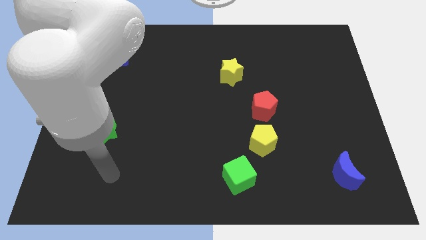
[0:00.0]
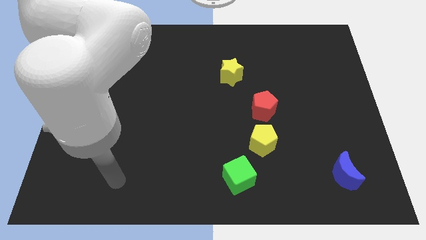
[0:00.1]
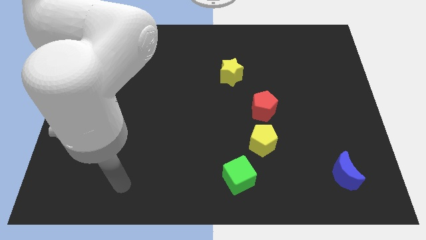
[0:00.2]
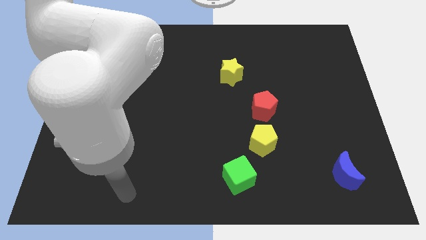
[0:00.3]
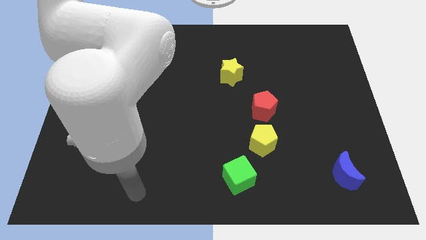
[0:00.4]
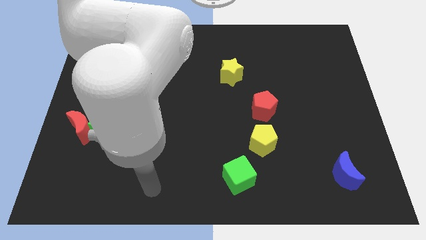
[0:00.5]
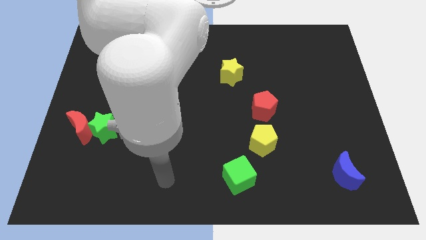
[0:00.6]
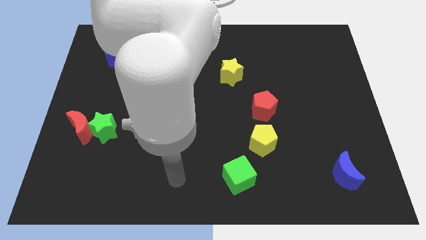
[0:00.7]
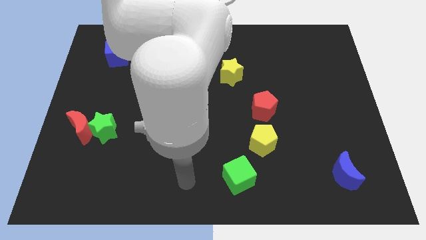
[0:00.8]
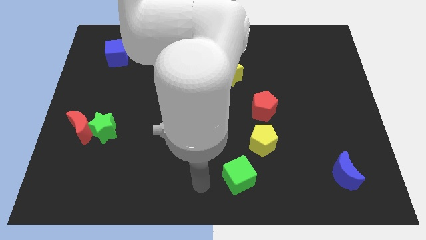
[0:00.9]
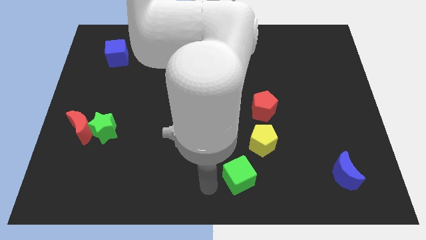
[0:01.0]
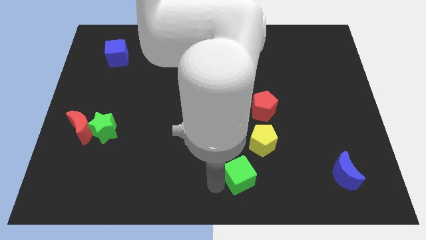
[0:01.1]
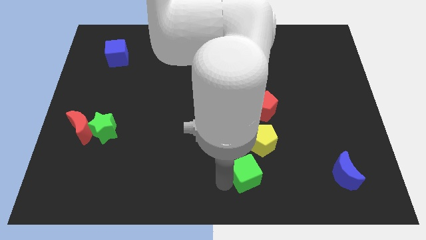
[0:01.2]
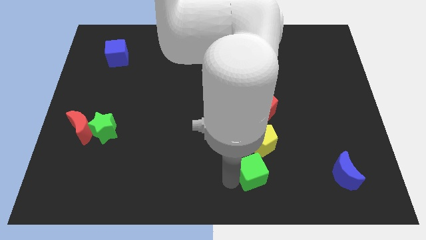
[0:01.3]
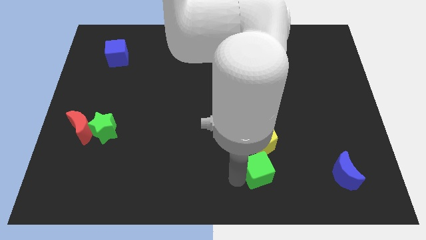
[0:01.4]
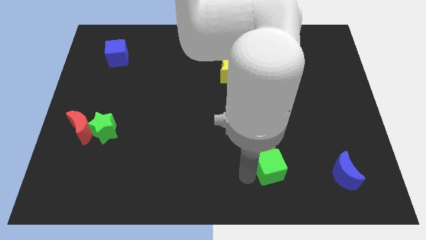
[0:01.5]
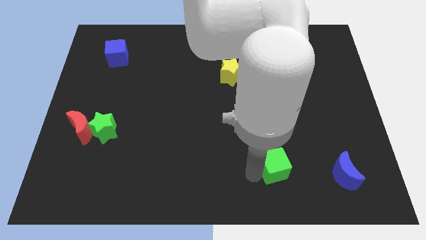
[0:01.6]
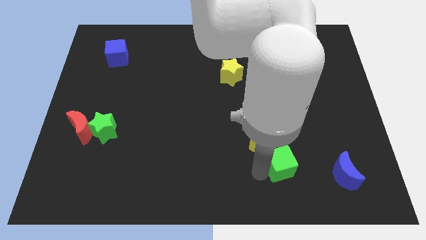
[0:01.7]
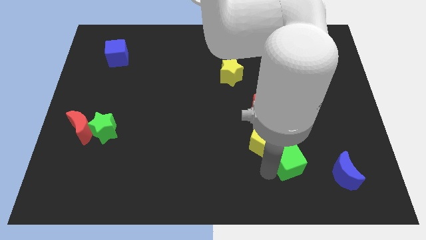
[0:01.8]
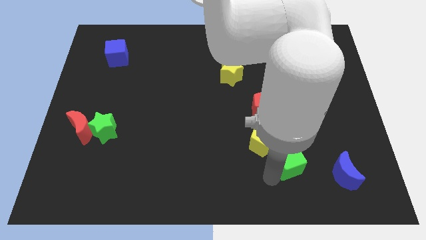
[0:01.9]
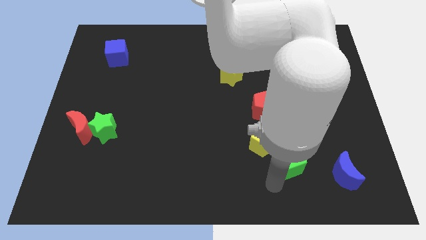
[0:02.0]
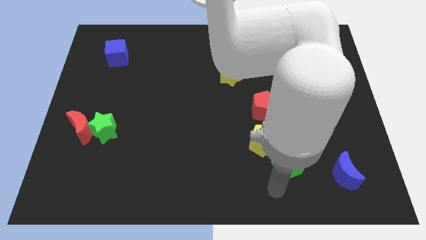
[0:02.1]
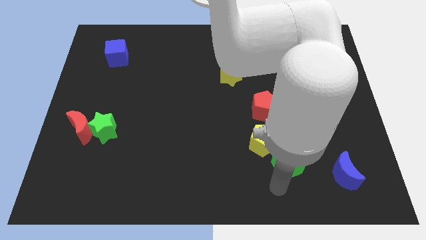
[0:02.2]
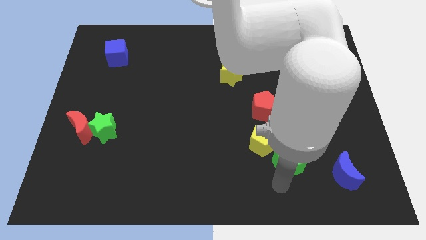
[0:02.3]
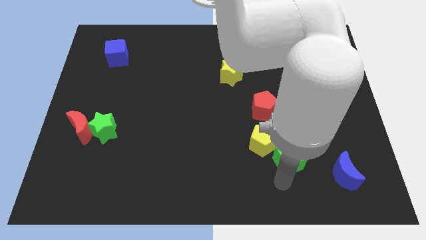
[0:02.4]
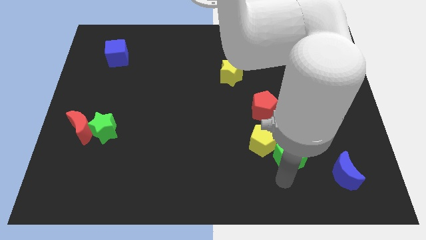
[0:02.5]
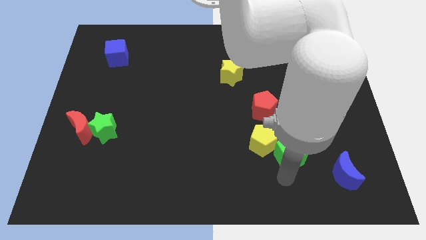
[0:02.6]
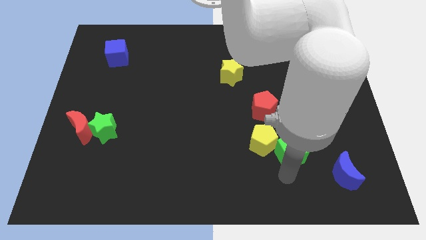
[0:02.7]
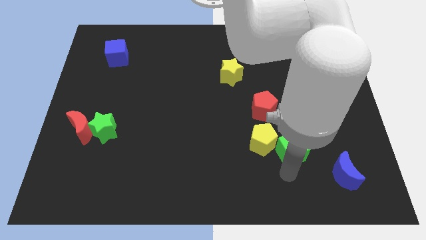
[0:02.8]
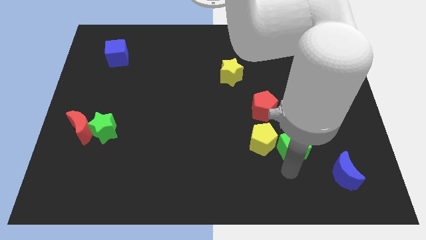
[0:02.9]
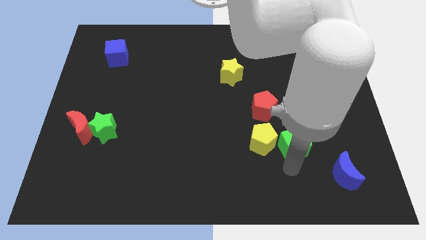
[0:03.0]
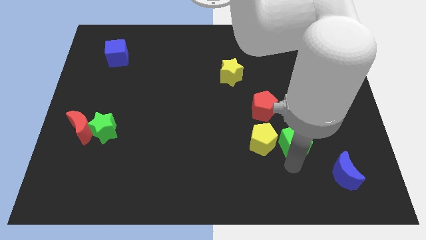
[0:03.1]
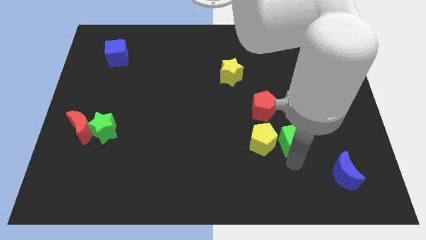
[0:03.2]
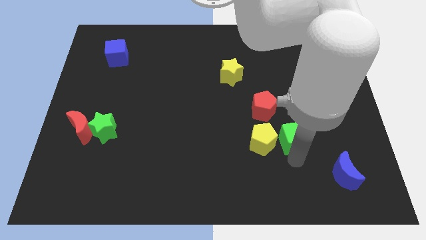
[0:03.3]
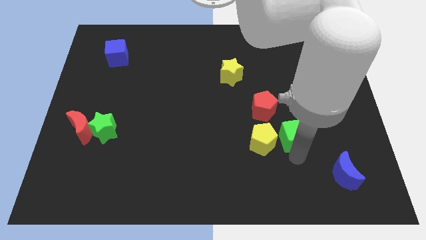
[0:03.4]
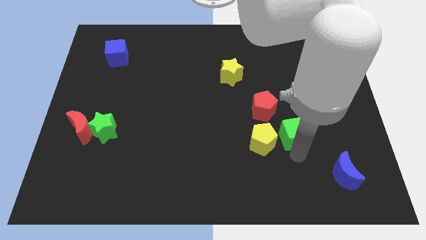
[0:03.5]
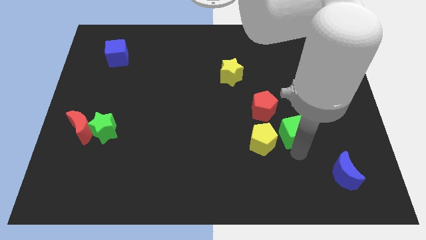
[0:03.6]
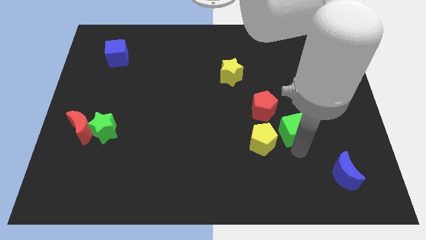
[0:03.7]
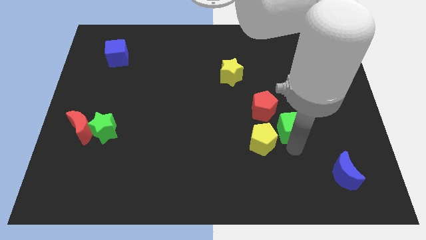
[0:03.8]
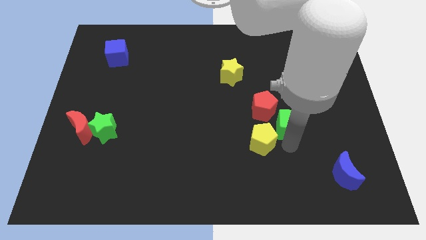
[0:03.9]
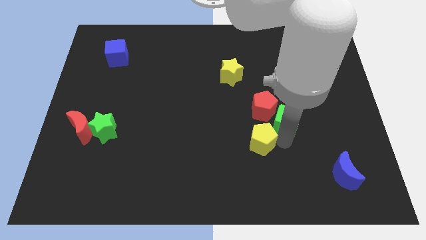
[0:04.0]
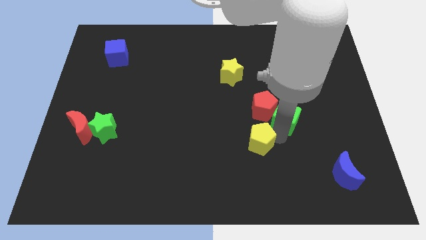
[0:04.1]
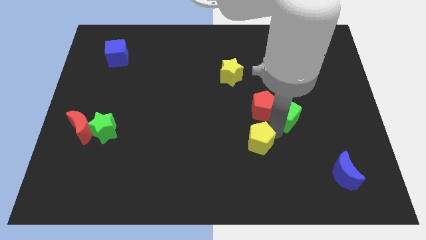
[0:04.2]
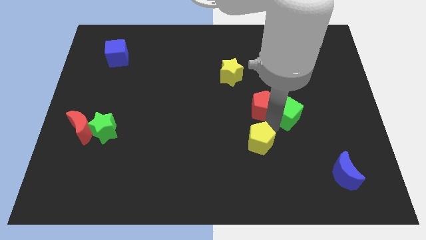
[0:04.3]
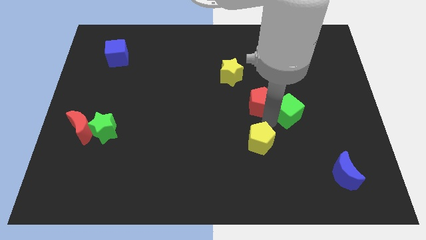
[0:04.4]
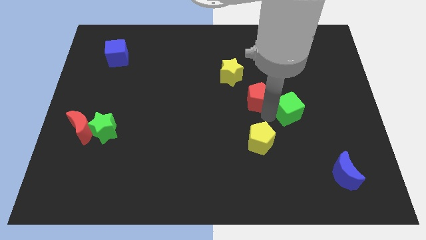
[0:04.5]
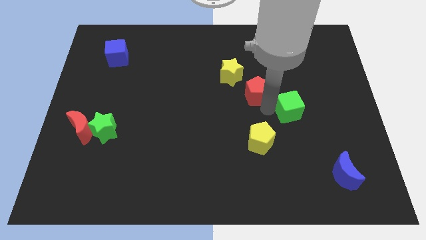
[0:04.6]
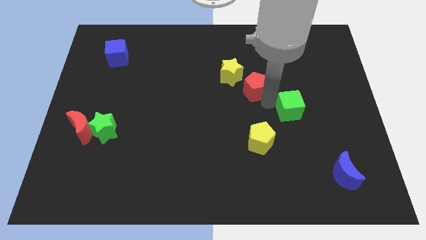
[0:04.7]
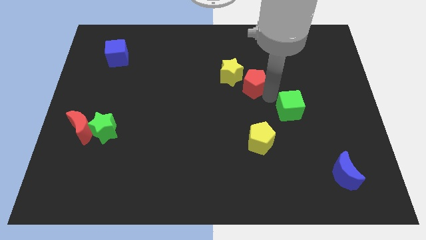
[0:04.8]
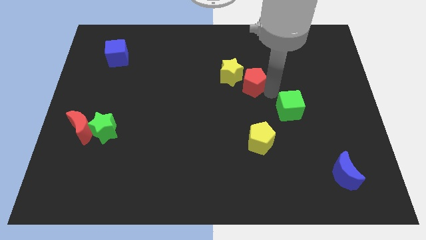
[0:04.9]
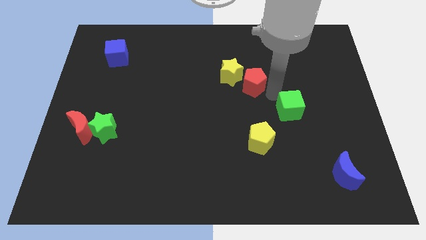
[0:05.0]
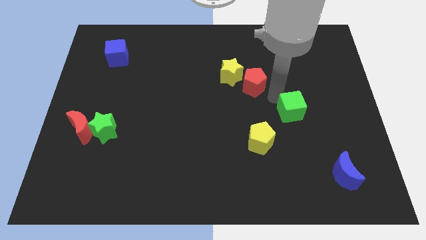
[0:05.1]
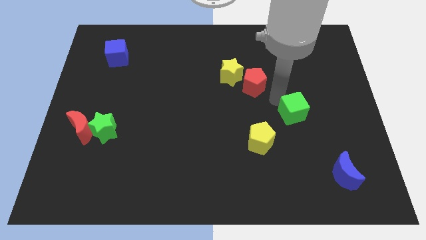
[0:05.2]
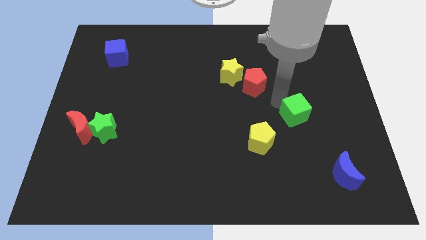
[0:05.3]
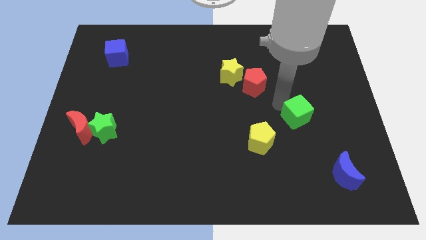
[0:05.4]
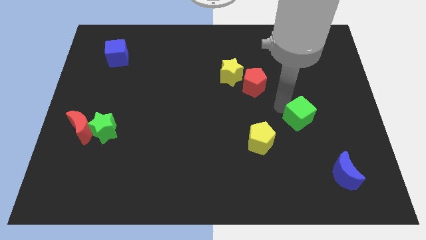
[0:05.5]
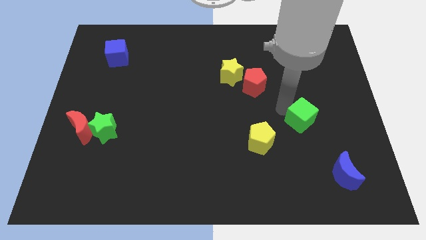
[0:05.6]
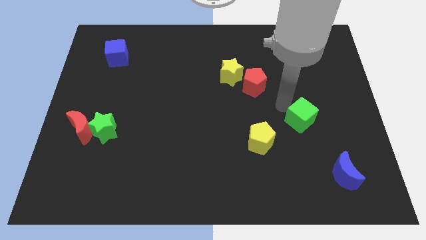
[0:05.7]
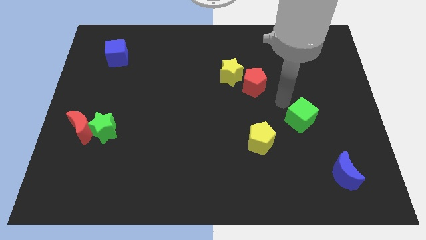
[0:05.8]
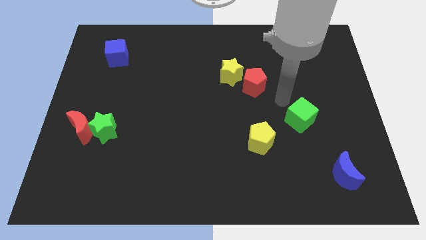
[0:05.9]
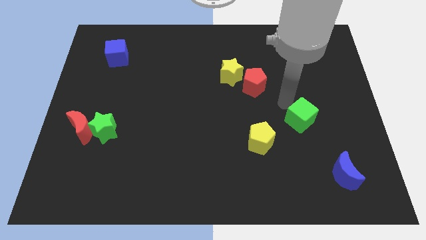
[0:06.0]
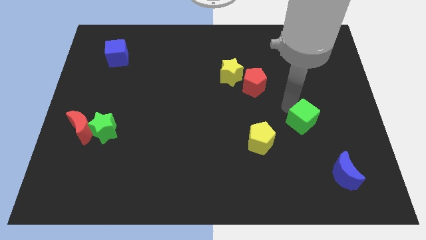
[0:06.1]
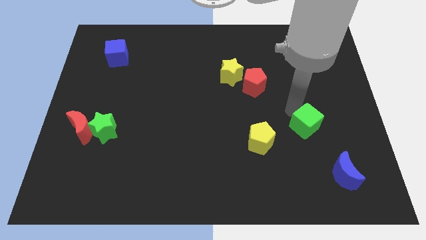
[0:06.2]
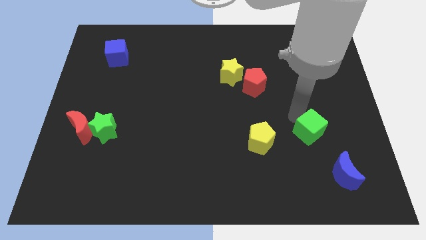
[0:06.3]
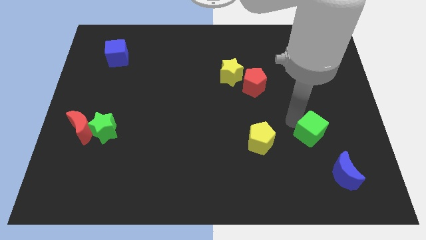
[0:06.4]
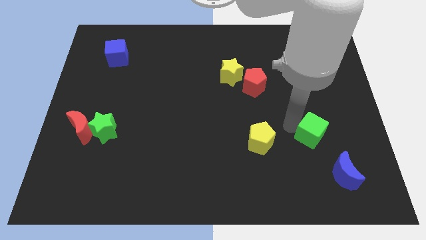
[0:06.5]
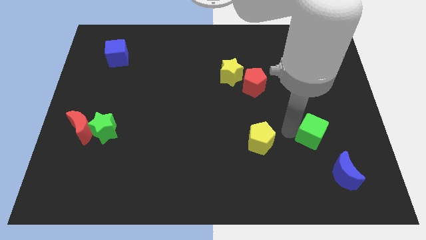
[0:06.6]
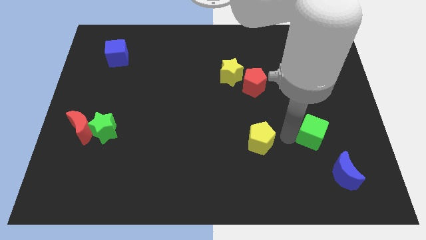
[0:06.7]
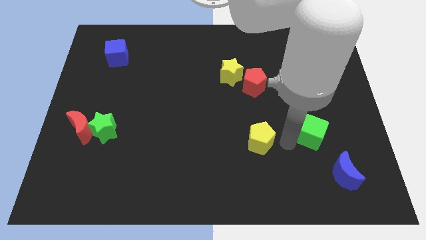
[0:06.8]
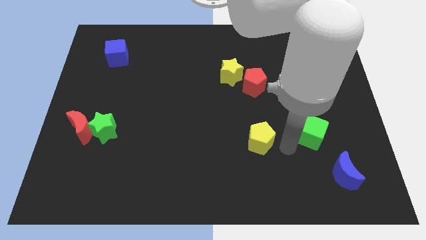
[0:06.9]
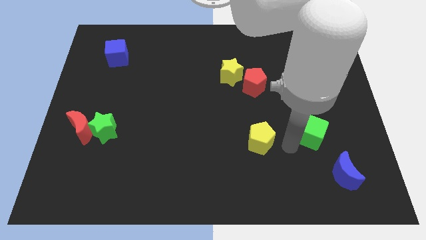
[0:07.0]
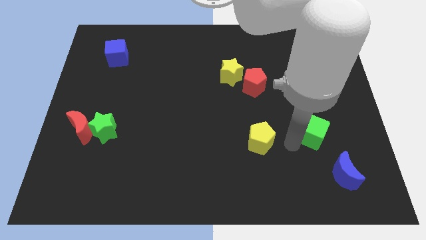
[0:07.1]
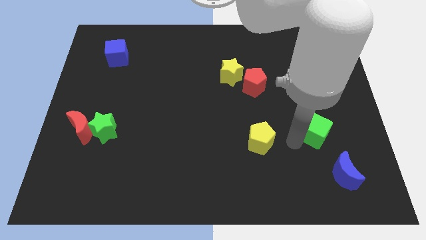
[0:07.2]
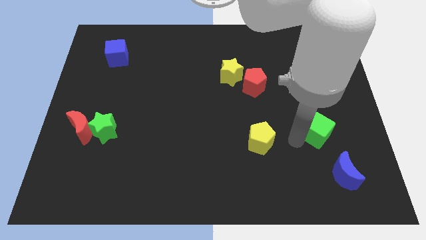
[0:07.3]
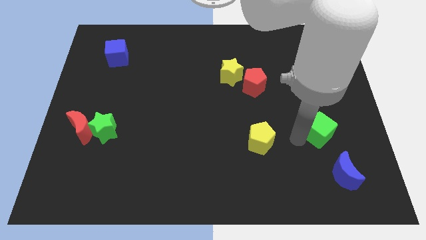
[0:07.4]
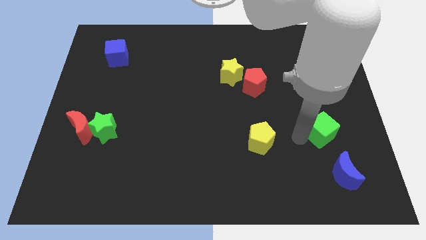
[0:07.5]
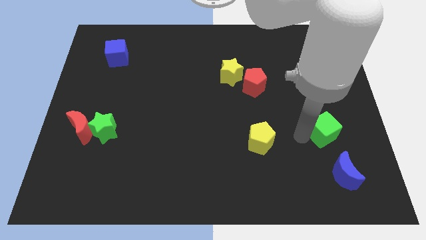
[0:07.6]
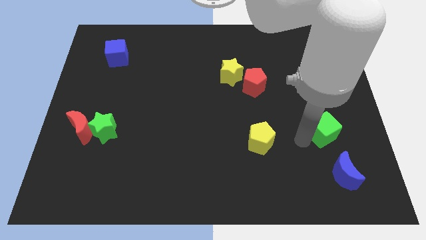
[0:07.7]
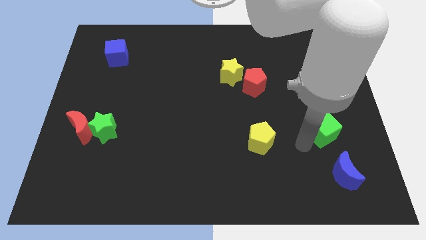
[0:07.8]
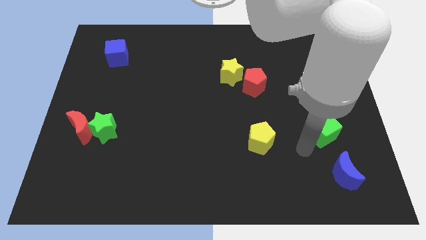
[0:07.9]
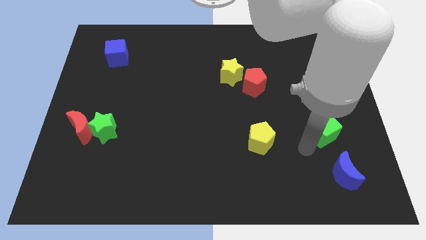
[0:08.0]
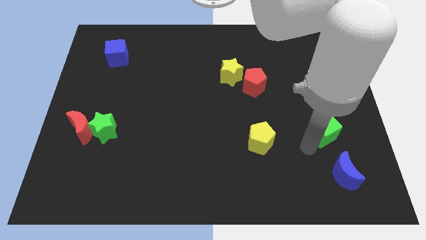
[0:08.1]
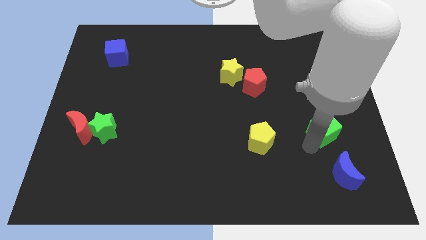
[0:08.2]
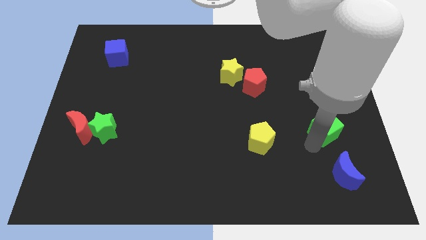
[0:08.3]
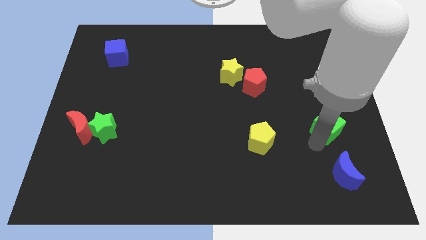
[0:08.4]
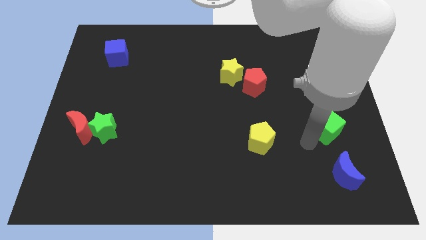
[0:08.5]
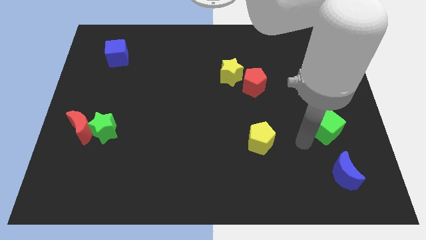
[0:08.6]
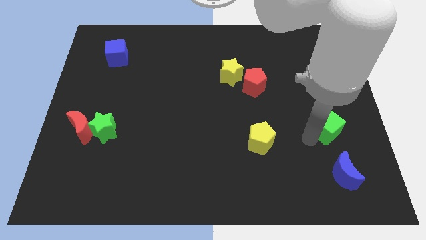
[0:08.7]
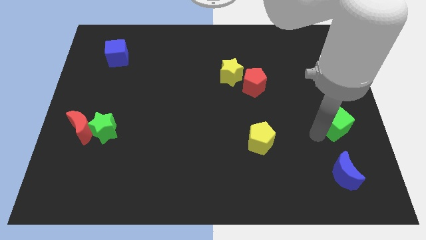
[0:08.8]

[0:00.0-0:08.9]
put the green cube to the right side
